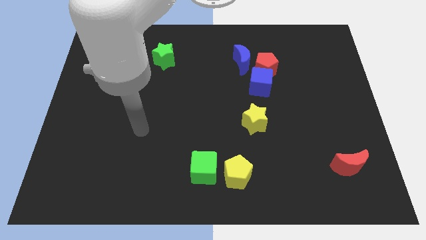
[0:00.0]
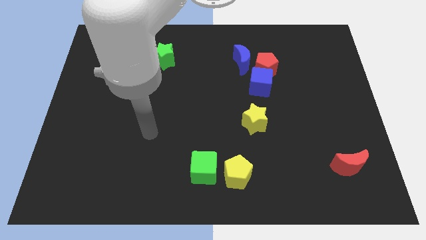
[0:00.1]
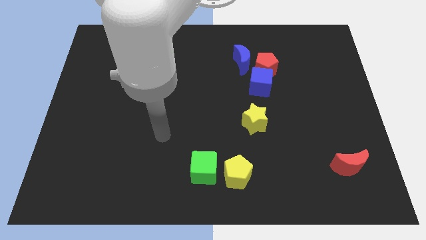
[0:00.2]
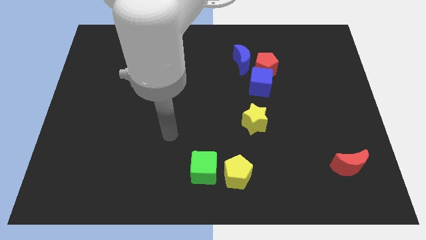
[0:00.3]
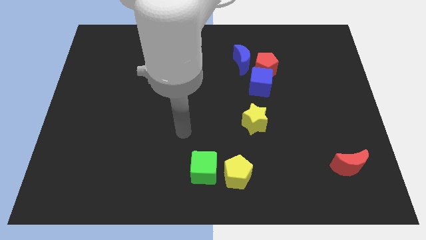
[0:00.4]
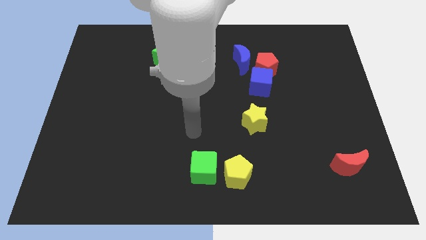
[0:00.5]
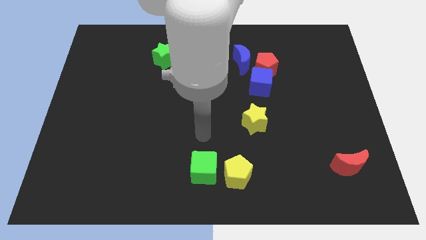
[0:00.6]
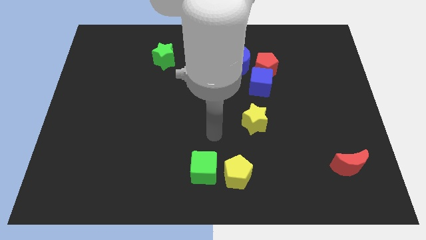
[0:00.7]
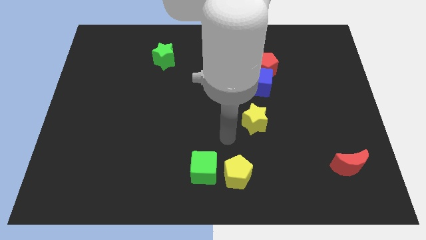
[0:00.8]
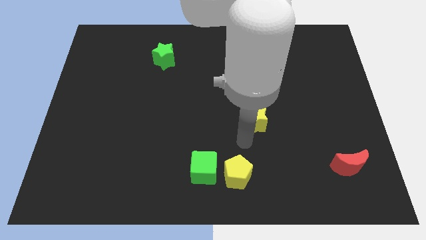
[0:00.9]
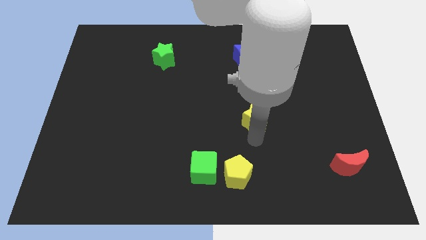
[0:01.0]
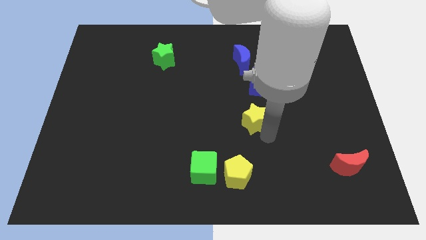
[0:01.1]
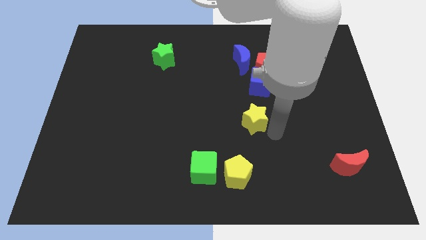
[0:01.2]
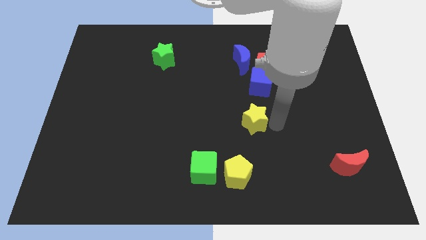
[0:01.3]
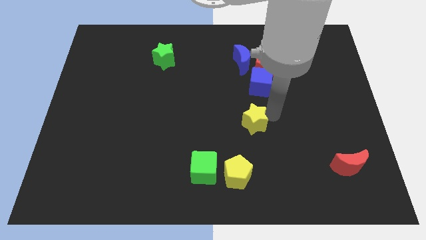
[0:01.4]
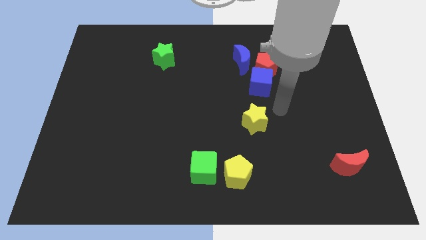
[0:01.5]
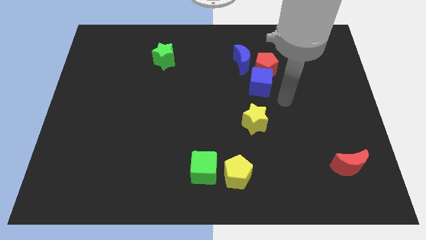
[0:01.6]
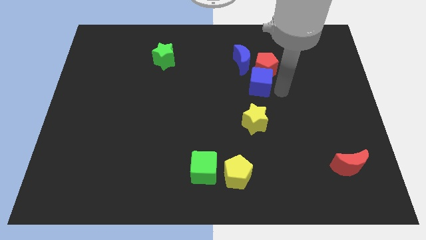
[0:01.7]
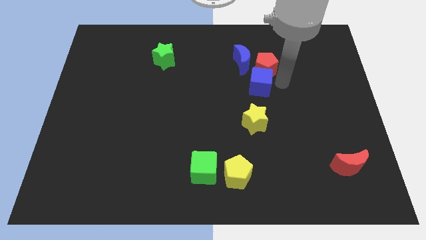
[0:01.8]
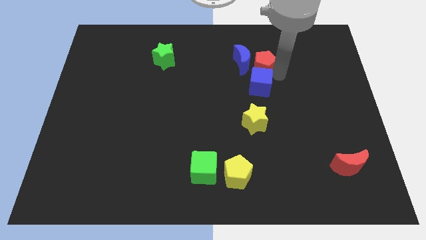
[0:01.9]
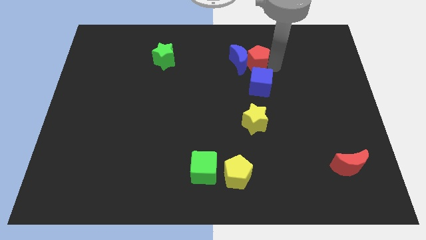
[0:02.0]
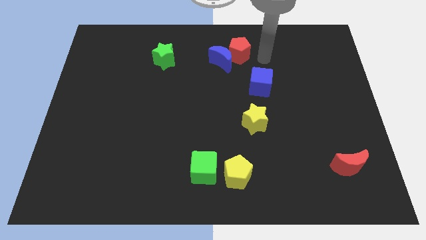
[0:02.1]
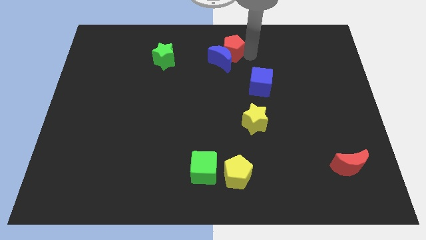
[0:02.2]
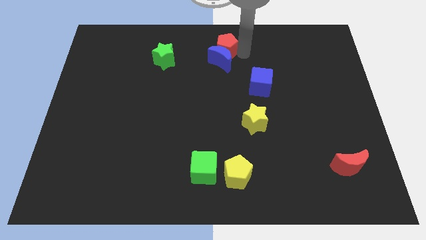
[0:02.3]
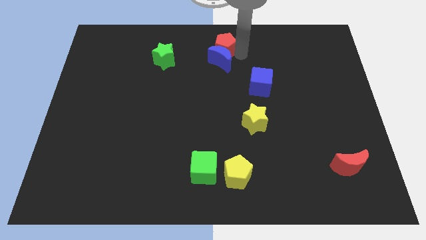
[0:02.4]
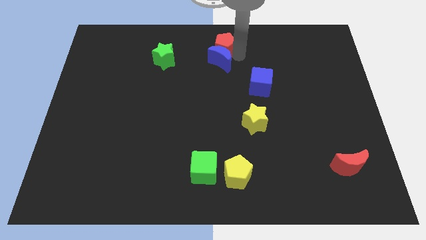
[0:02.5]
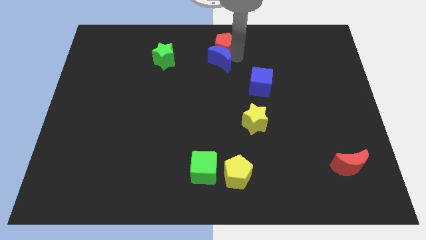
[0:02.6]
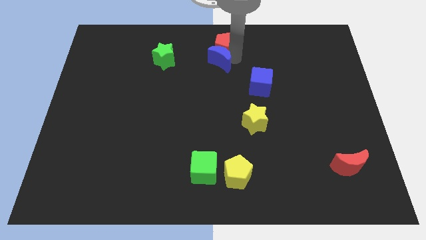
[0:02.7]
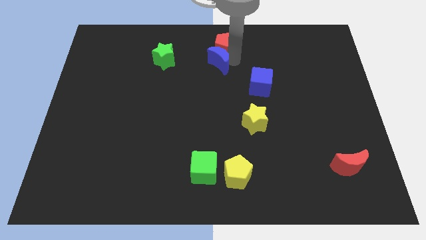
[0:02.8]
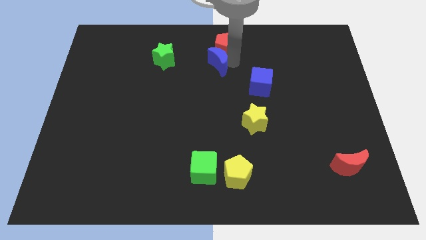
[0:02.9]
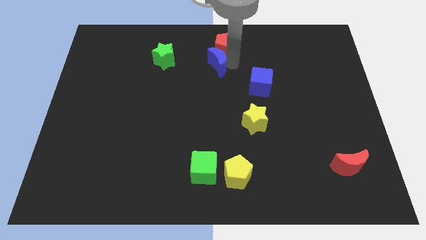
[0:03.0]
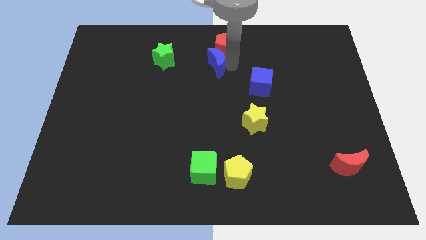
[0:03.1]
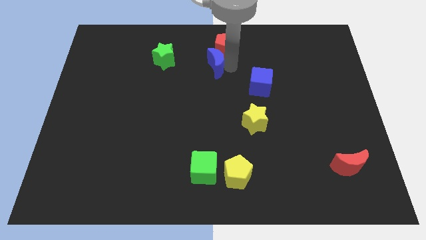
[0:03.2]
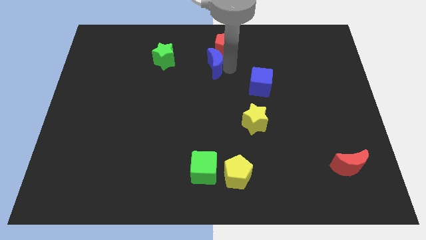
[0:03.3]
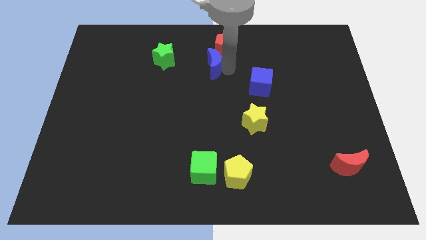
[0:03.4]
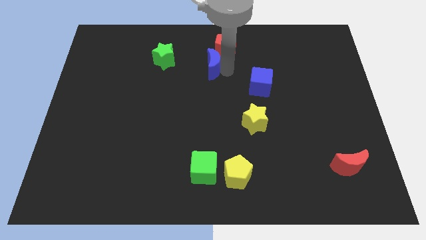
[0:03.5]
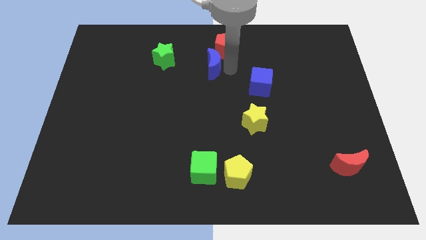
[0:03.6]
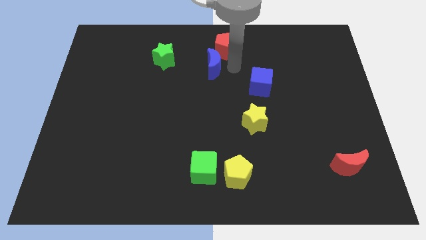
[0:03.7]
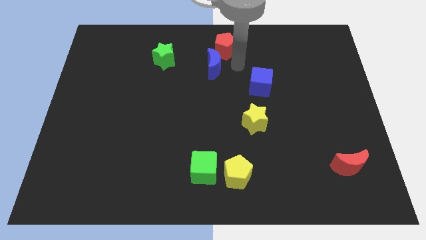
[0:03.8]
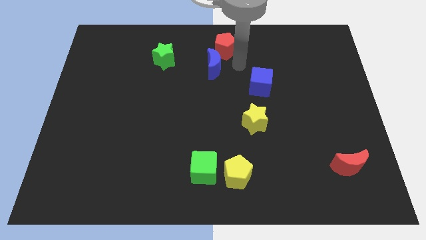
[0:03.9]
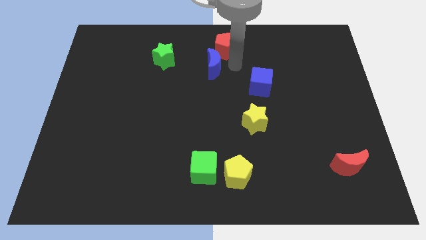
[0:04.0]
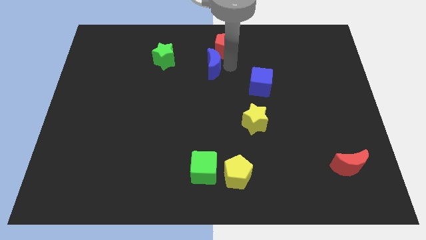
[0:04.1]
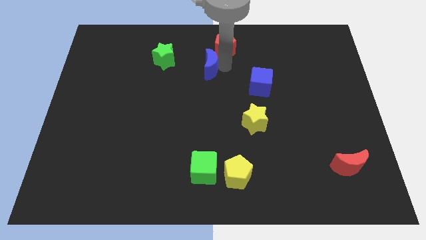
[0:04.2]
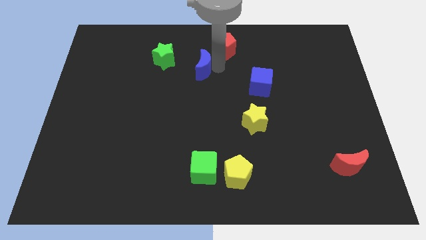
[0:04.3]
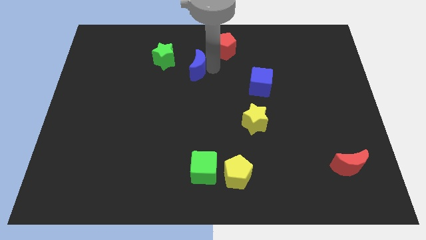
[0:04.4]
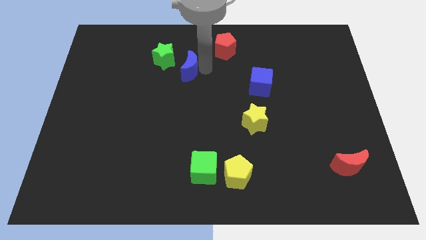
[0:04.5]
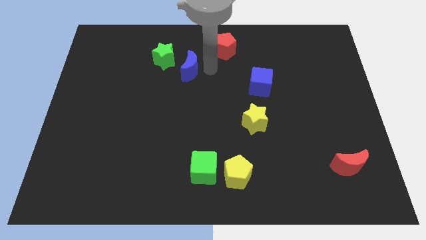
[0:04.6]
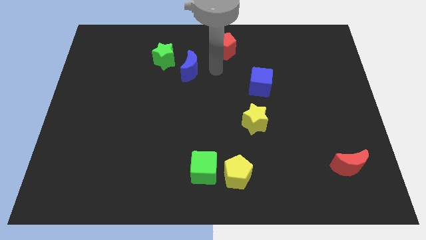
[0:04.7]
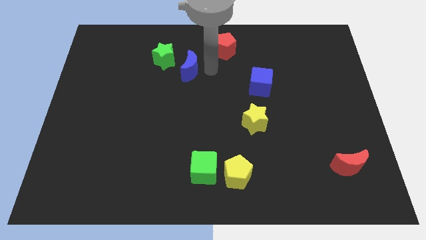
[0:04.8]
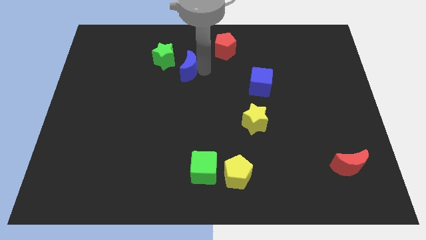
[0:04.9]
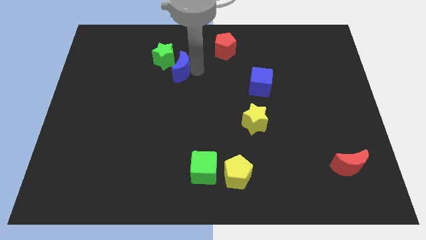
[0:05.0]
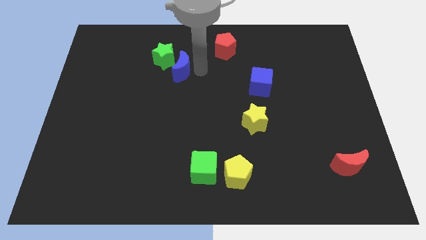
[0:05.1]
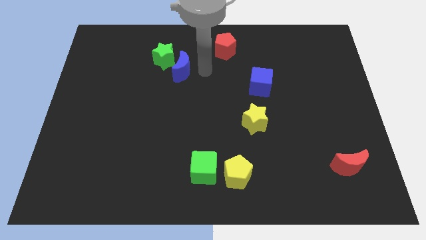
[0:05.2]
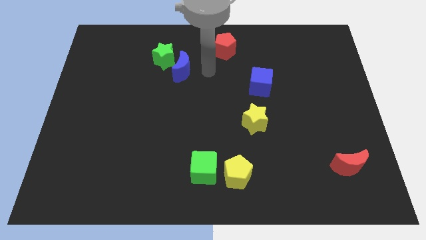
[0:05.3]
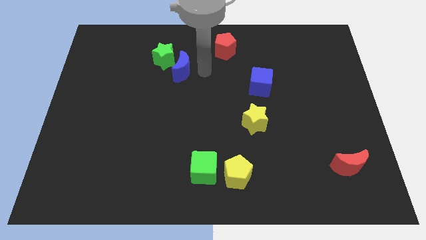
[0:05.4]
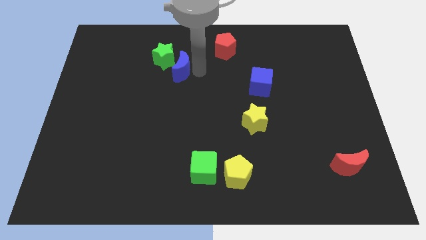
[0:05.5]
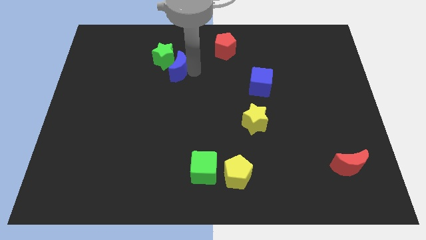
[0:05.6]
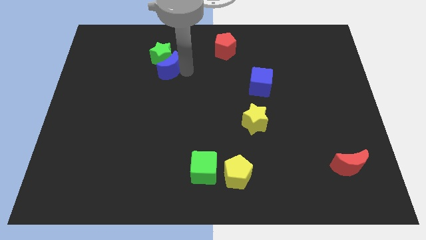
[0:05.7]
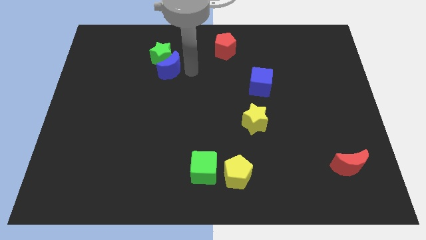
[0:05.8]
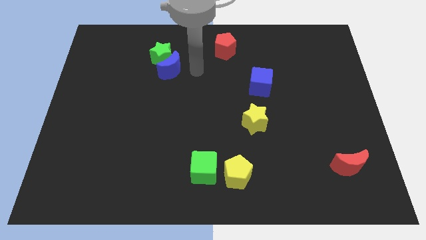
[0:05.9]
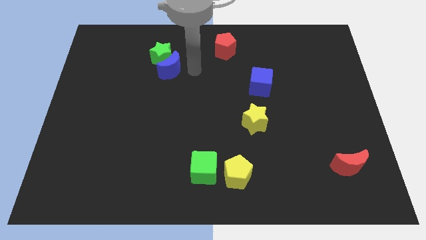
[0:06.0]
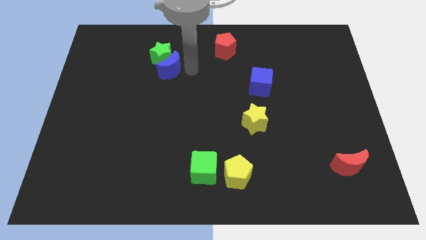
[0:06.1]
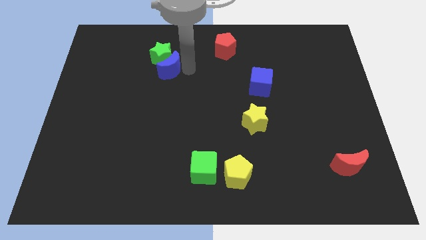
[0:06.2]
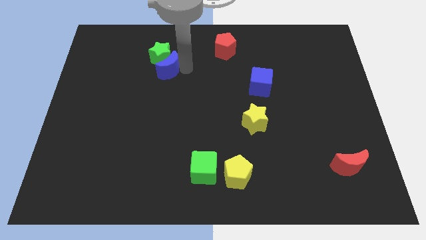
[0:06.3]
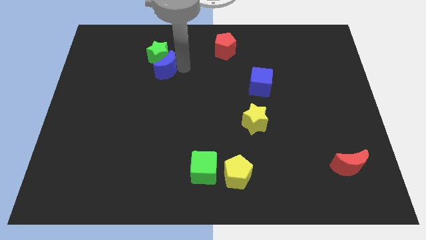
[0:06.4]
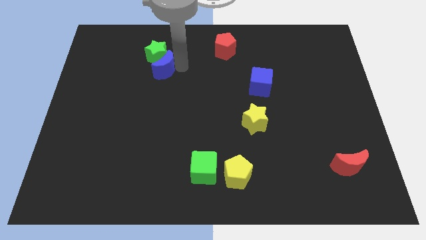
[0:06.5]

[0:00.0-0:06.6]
push the blue moon to the left

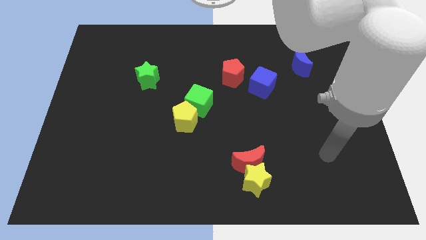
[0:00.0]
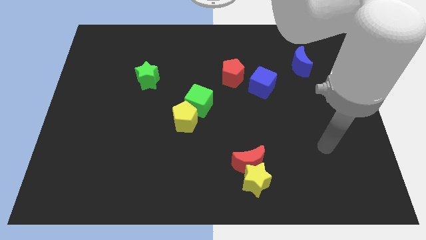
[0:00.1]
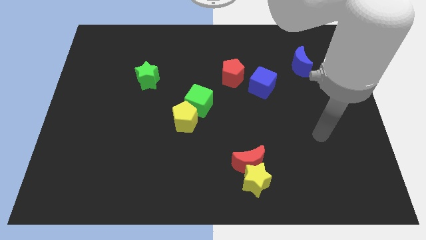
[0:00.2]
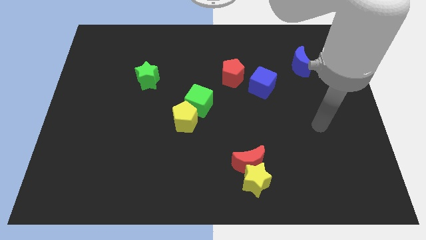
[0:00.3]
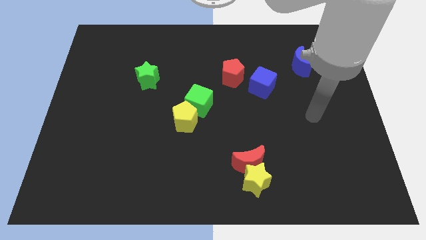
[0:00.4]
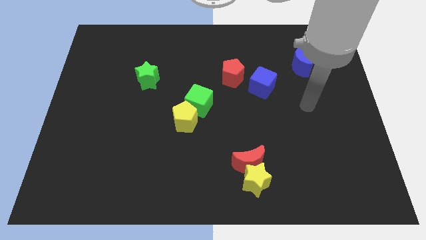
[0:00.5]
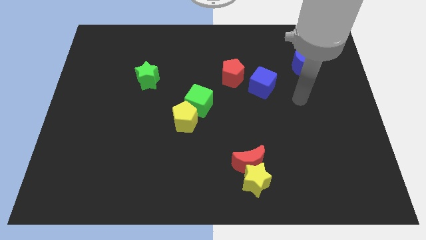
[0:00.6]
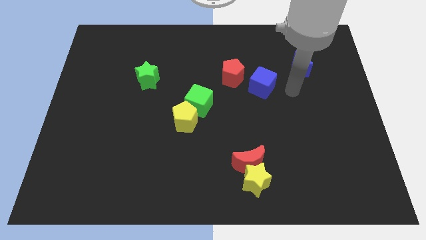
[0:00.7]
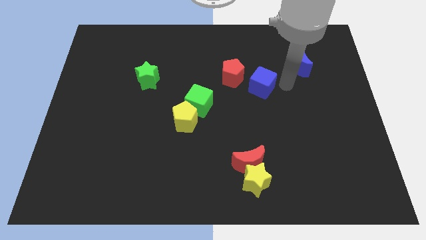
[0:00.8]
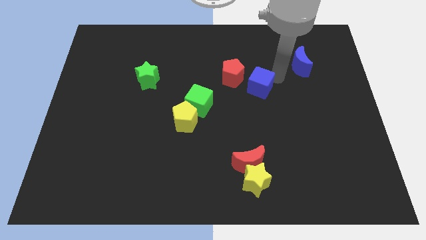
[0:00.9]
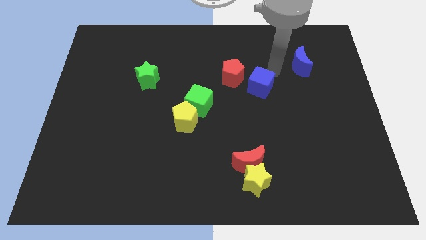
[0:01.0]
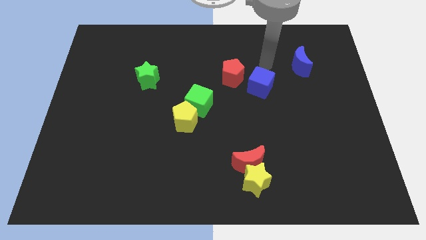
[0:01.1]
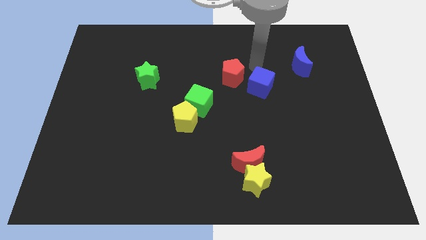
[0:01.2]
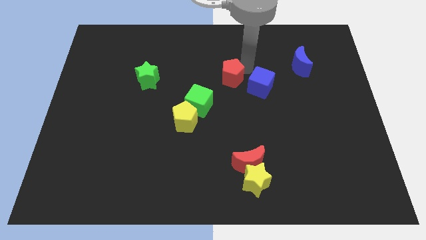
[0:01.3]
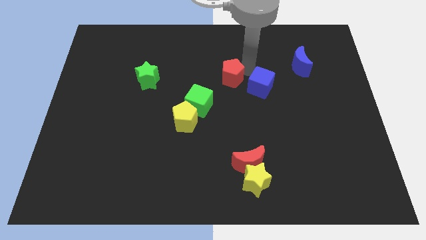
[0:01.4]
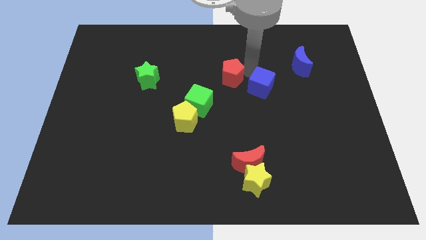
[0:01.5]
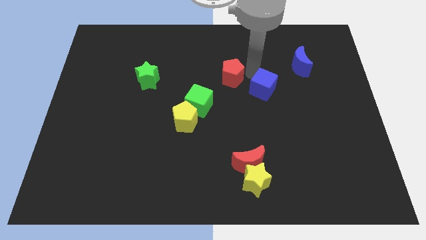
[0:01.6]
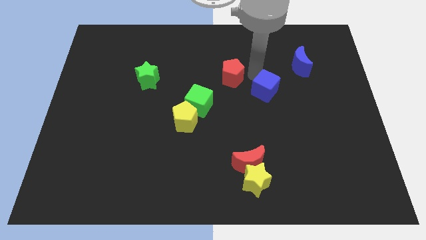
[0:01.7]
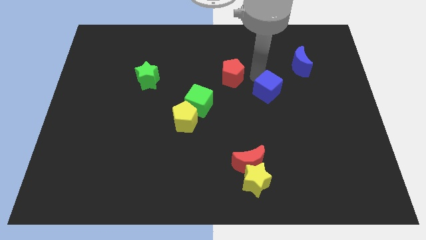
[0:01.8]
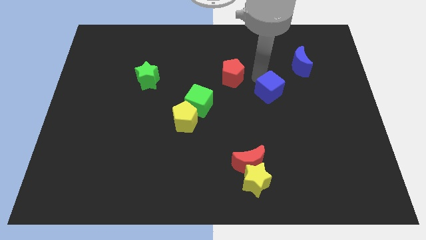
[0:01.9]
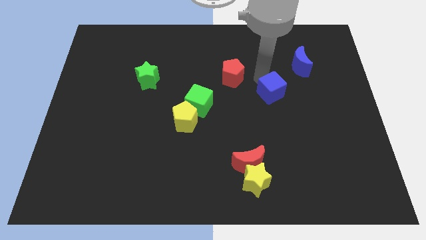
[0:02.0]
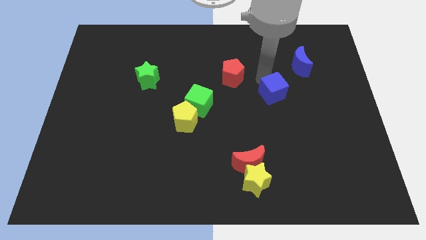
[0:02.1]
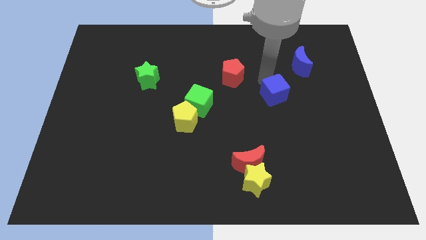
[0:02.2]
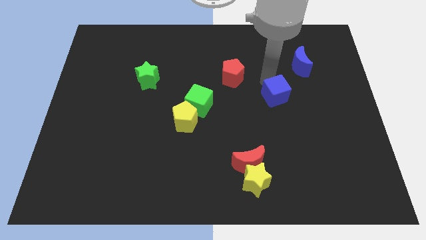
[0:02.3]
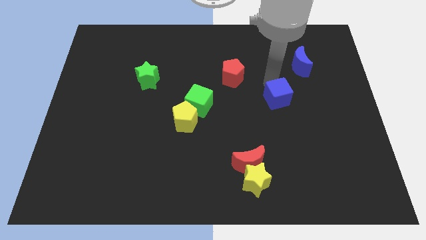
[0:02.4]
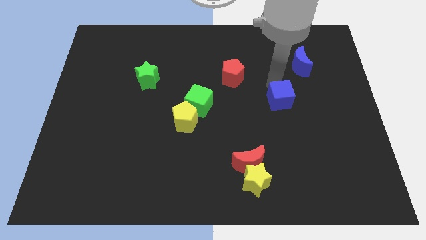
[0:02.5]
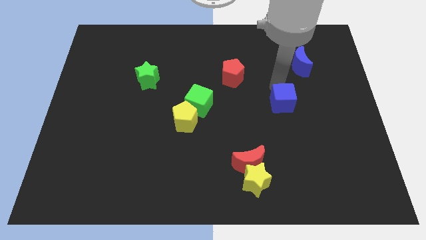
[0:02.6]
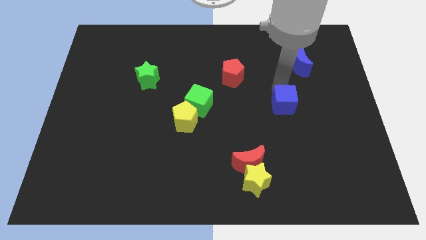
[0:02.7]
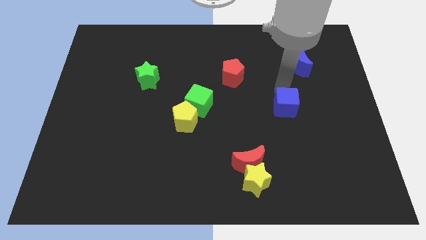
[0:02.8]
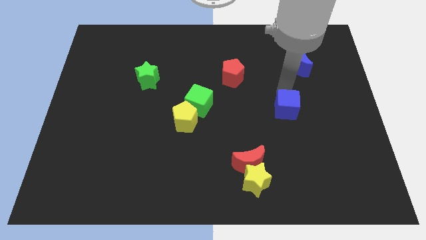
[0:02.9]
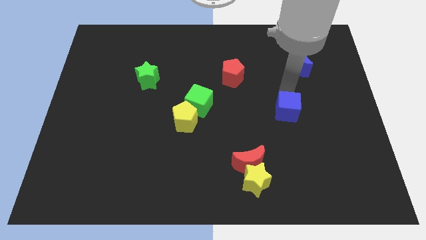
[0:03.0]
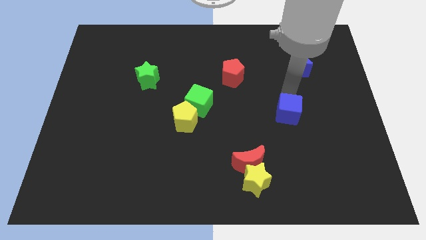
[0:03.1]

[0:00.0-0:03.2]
slide the blue cube downwards somewhat
